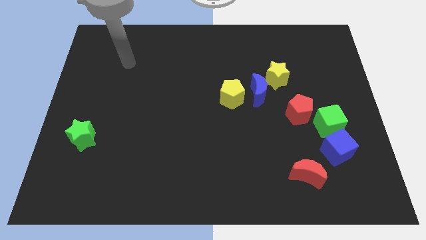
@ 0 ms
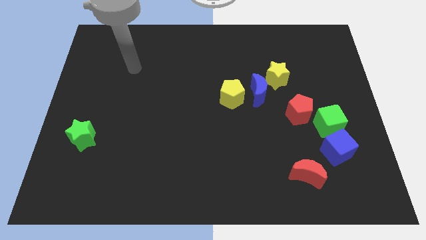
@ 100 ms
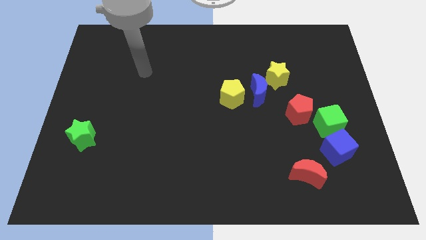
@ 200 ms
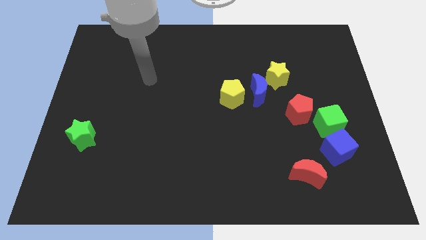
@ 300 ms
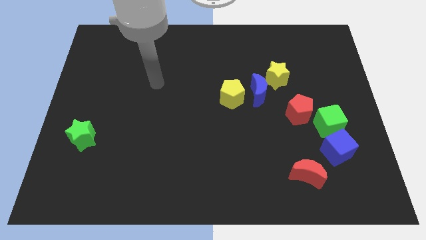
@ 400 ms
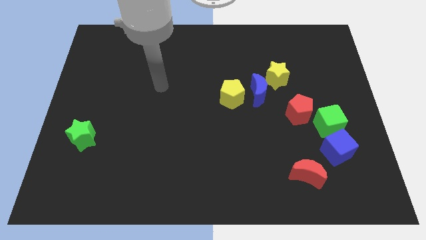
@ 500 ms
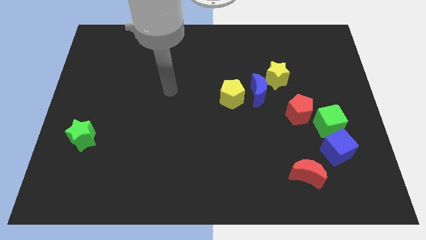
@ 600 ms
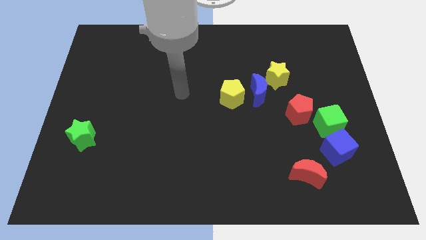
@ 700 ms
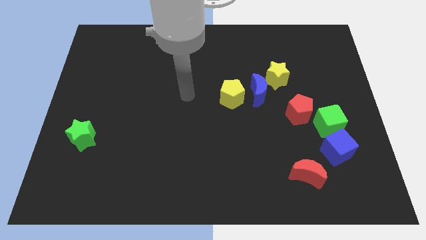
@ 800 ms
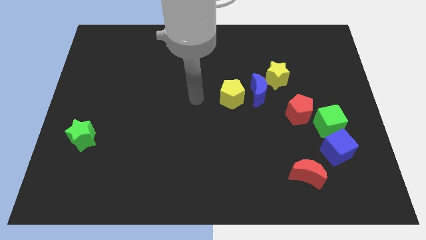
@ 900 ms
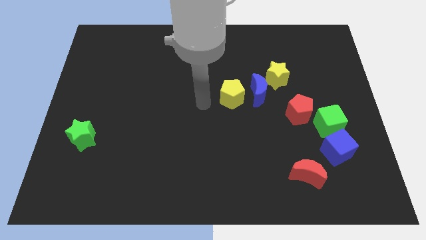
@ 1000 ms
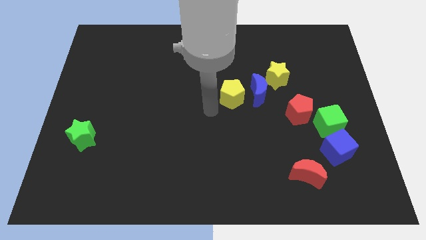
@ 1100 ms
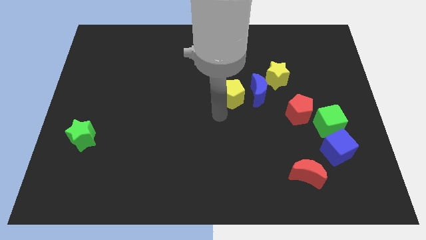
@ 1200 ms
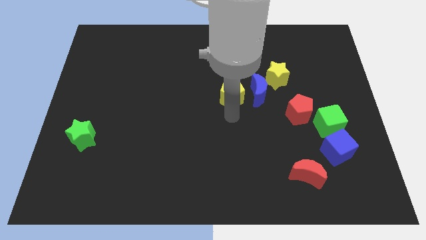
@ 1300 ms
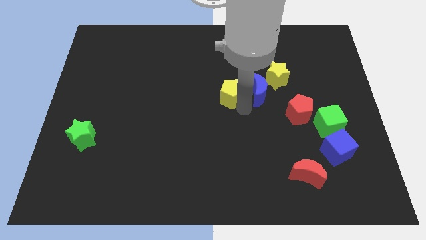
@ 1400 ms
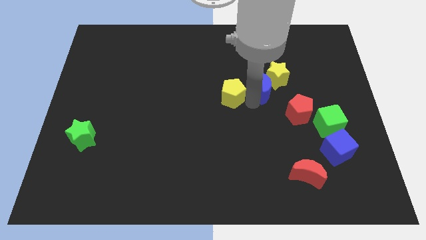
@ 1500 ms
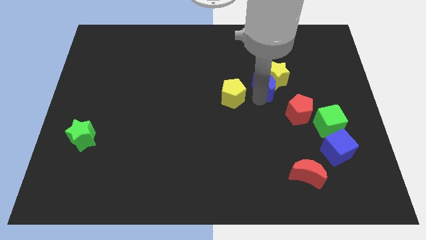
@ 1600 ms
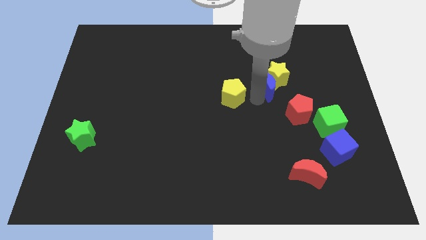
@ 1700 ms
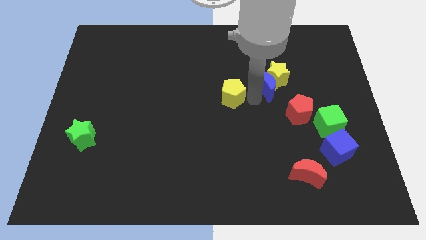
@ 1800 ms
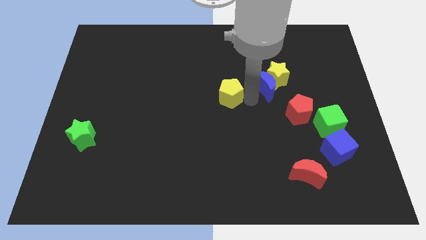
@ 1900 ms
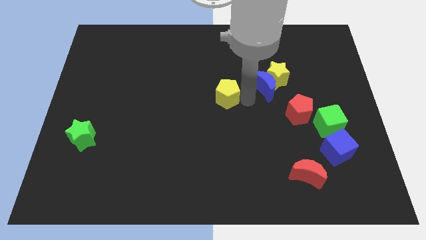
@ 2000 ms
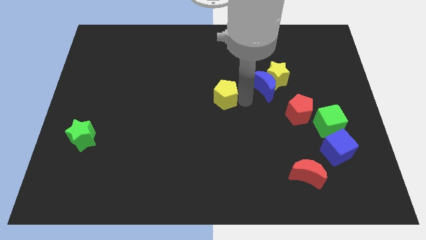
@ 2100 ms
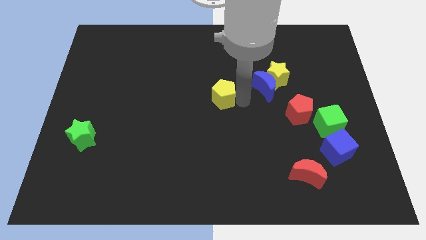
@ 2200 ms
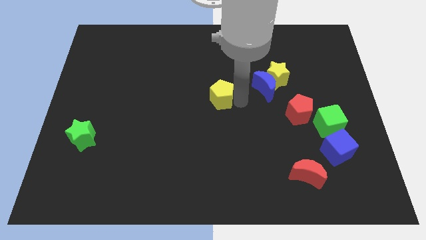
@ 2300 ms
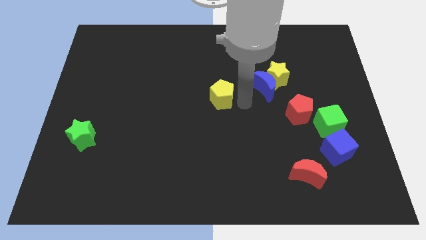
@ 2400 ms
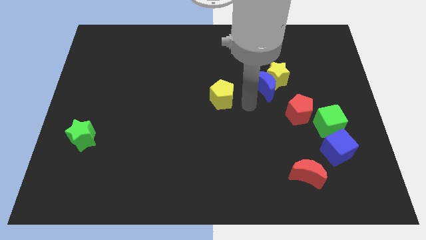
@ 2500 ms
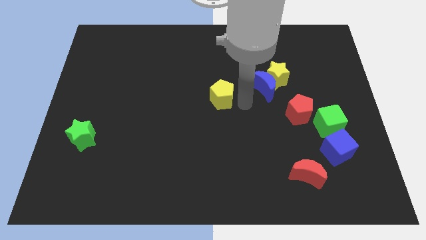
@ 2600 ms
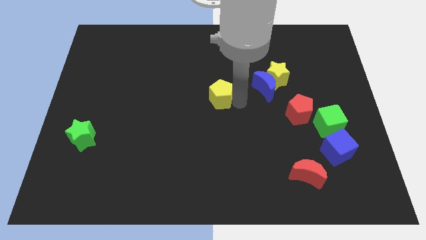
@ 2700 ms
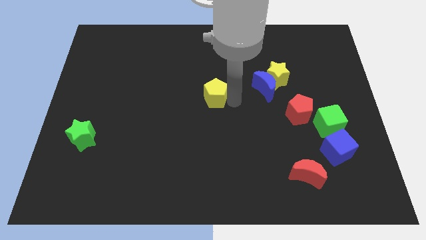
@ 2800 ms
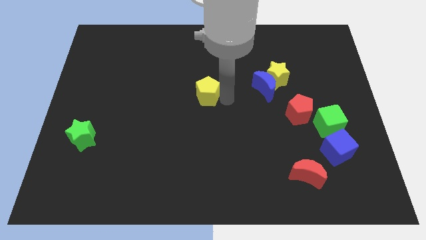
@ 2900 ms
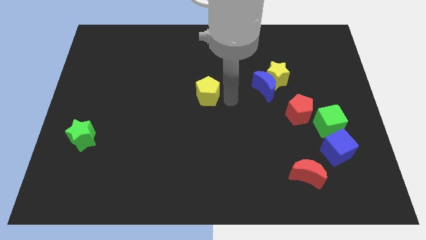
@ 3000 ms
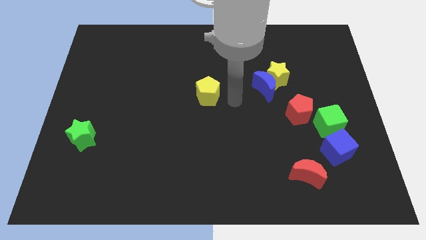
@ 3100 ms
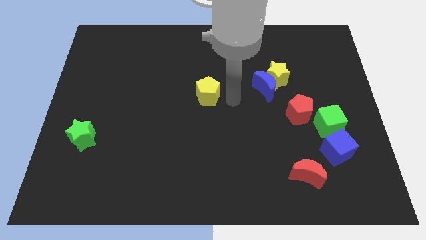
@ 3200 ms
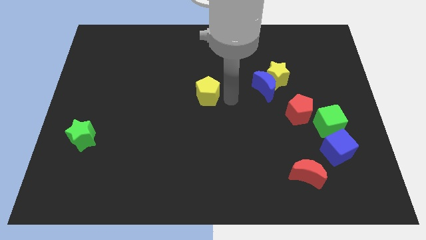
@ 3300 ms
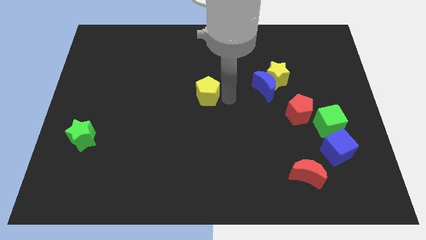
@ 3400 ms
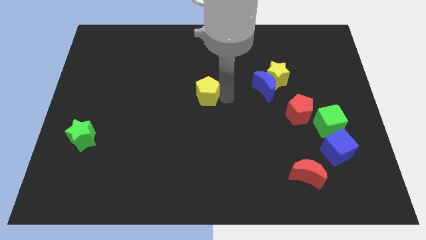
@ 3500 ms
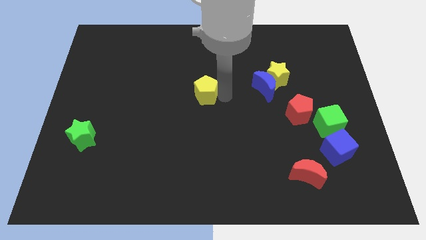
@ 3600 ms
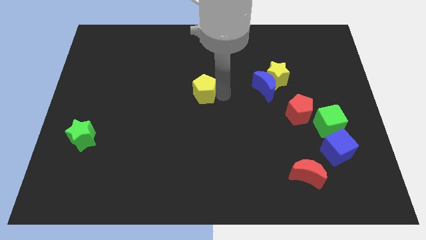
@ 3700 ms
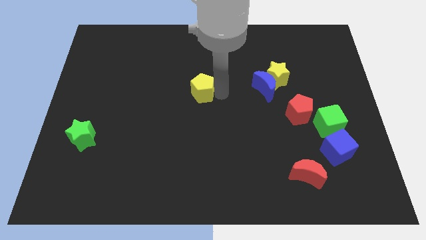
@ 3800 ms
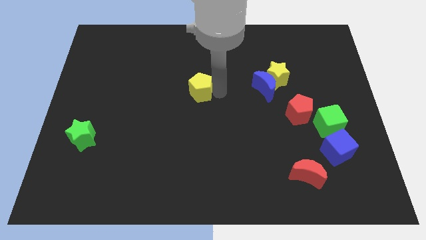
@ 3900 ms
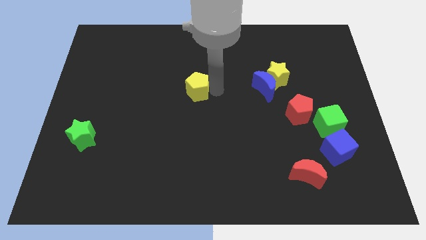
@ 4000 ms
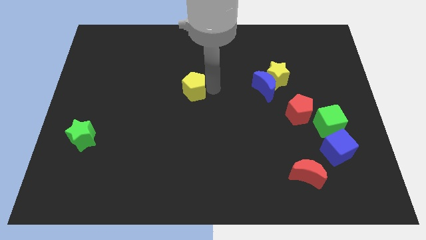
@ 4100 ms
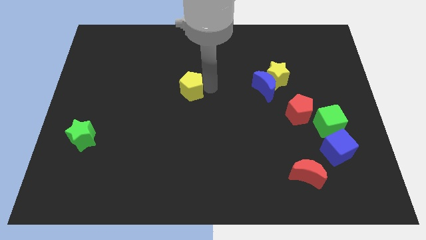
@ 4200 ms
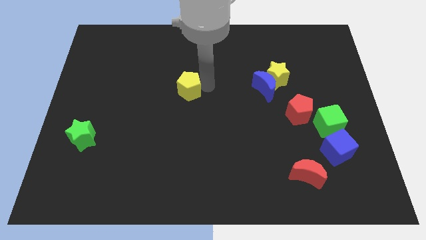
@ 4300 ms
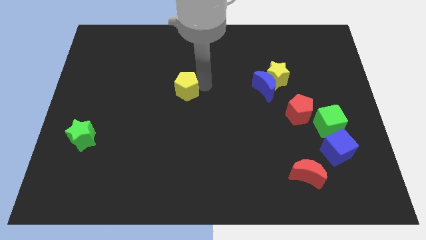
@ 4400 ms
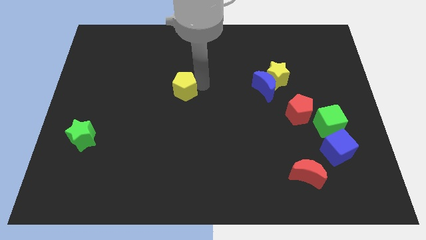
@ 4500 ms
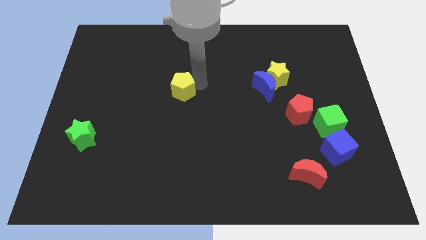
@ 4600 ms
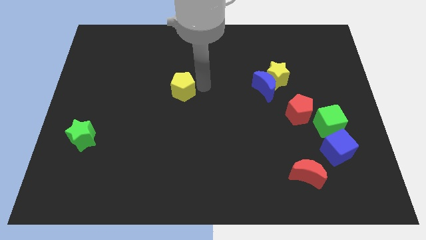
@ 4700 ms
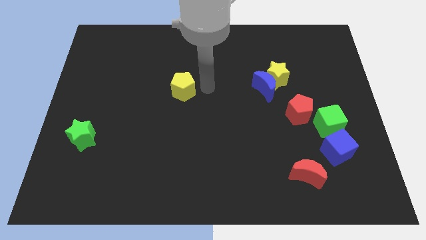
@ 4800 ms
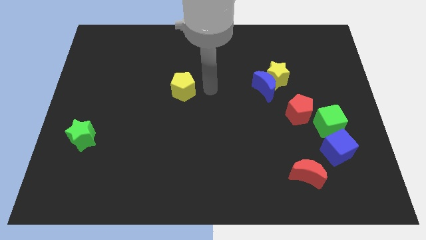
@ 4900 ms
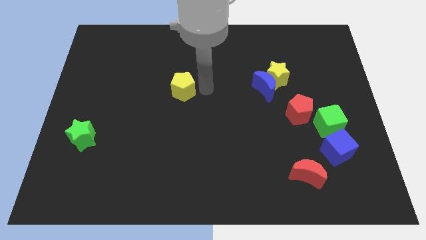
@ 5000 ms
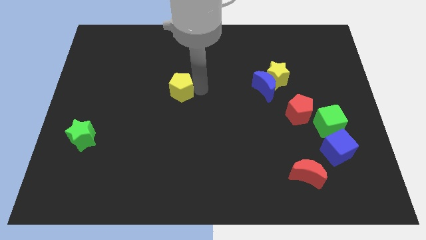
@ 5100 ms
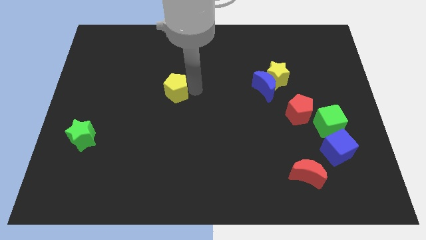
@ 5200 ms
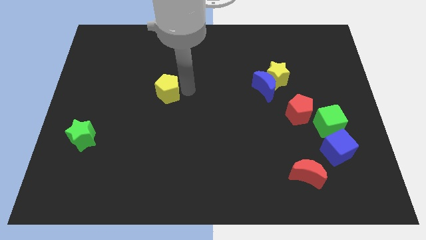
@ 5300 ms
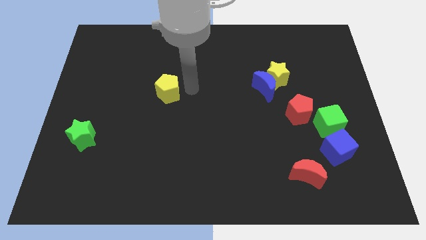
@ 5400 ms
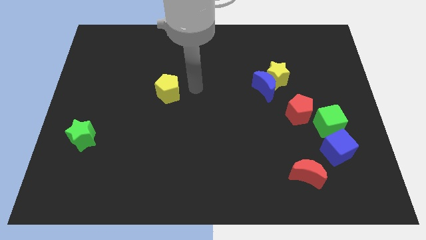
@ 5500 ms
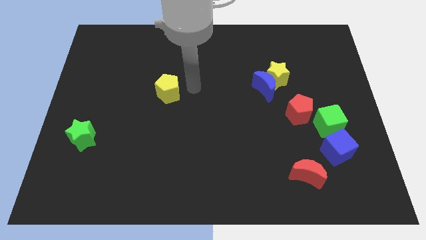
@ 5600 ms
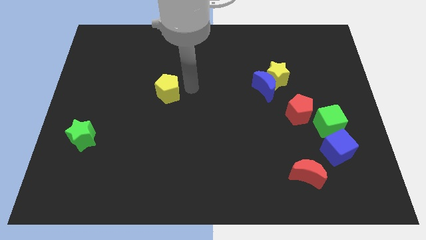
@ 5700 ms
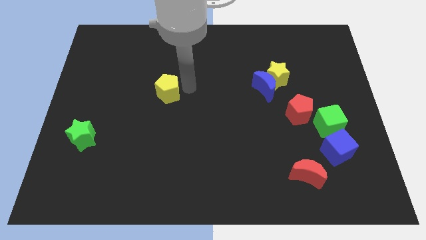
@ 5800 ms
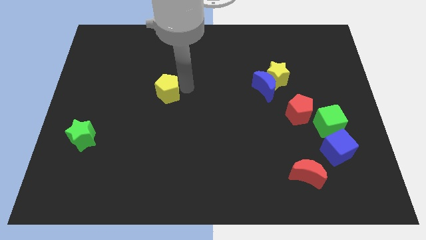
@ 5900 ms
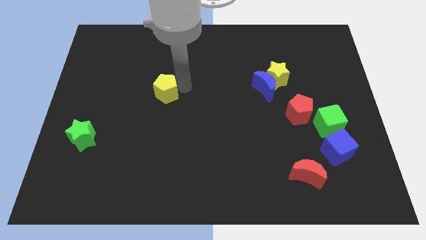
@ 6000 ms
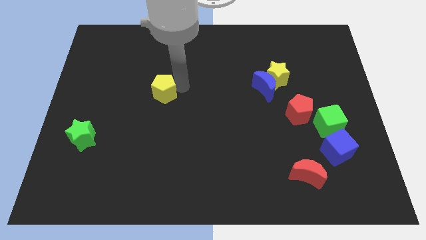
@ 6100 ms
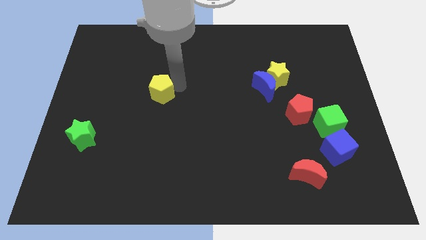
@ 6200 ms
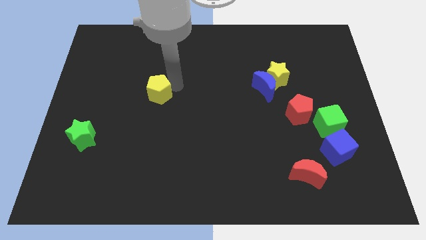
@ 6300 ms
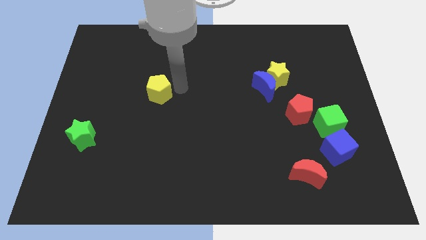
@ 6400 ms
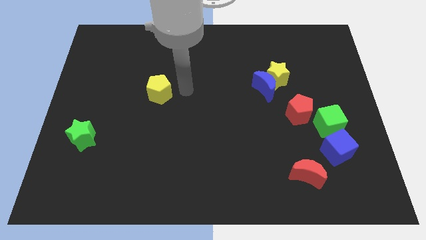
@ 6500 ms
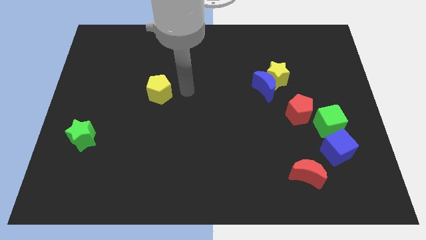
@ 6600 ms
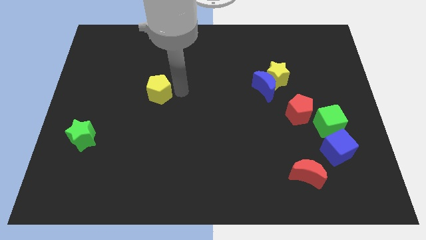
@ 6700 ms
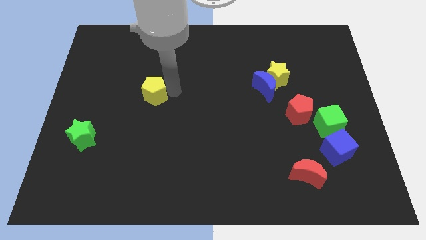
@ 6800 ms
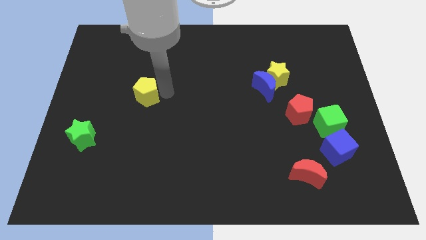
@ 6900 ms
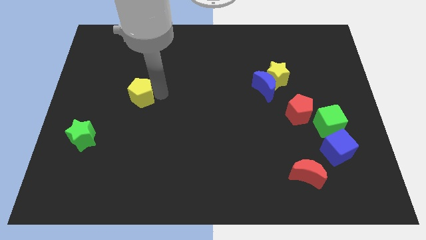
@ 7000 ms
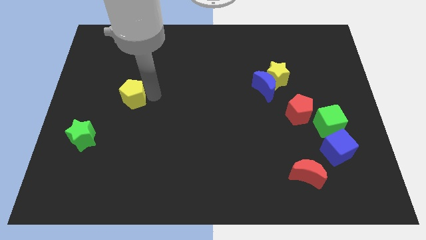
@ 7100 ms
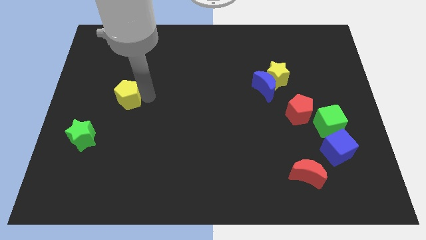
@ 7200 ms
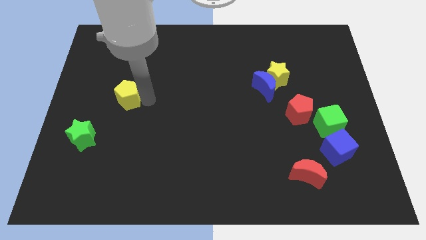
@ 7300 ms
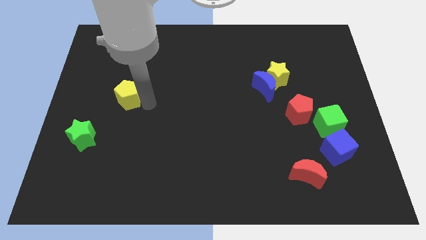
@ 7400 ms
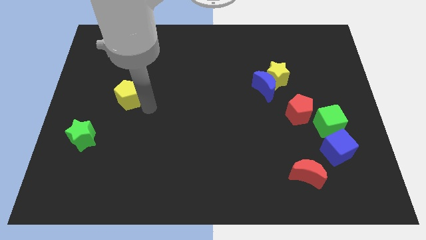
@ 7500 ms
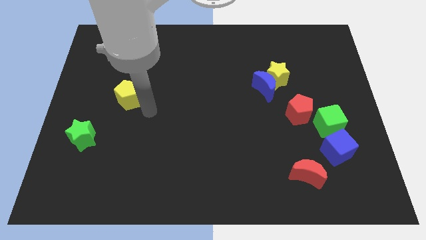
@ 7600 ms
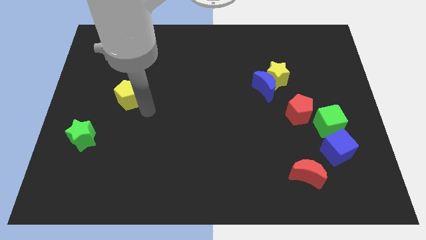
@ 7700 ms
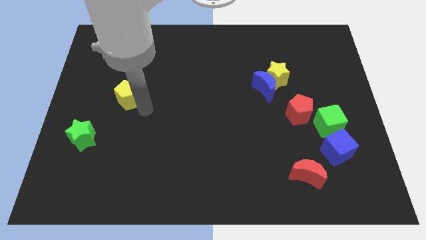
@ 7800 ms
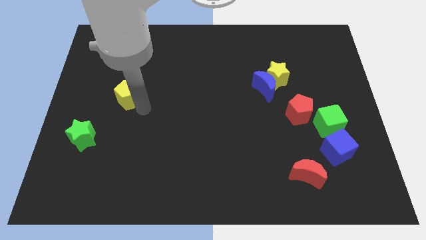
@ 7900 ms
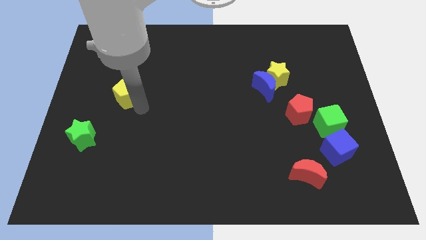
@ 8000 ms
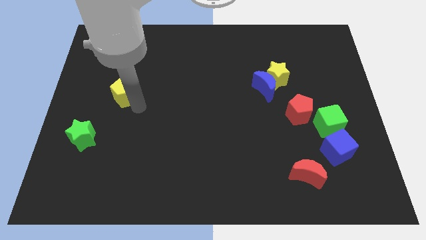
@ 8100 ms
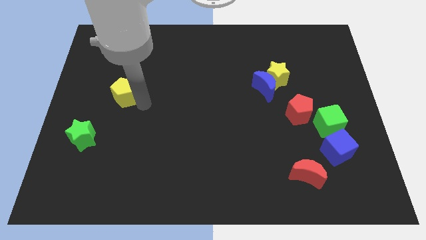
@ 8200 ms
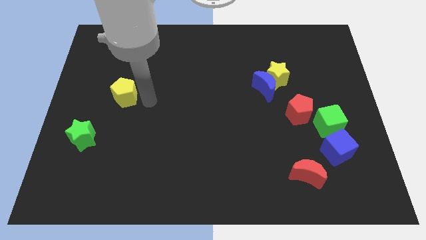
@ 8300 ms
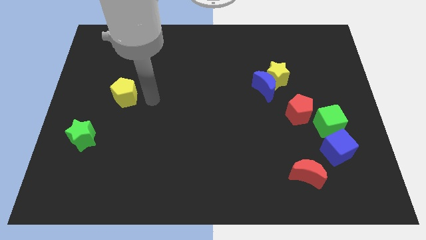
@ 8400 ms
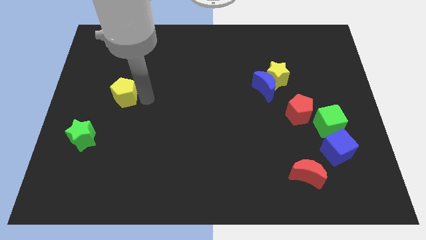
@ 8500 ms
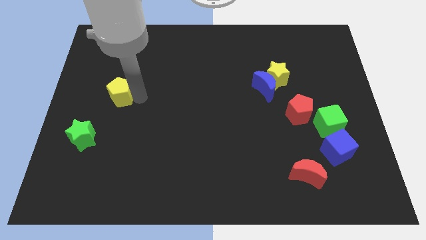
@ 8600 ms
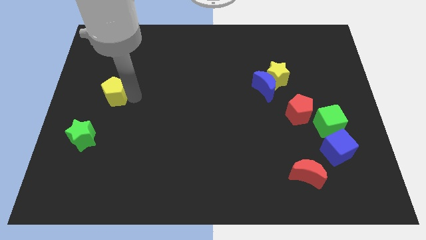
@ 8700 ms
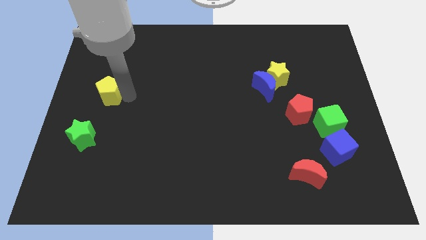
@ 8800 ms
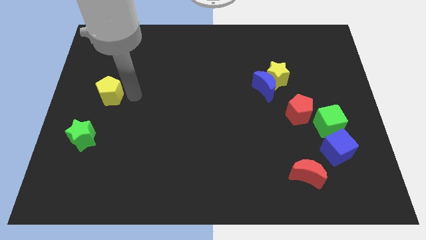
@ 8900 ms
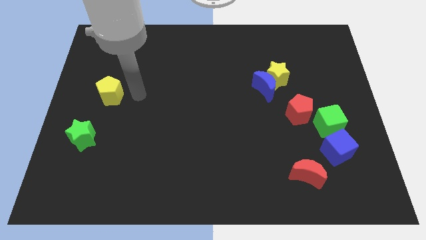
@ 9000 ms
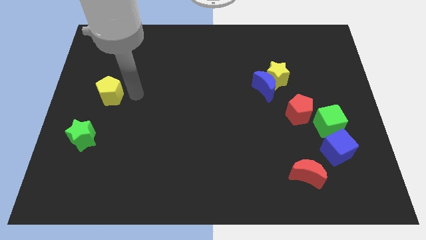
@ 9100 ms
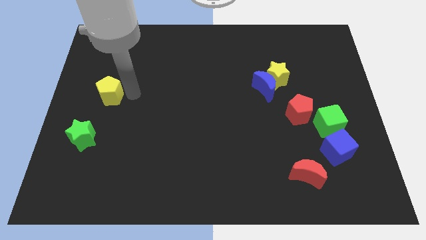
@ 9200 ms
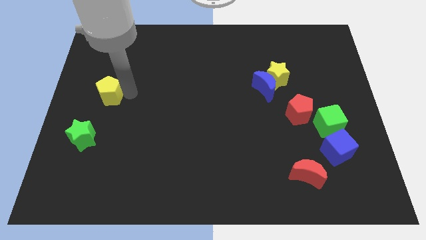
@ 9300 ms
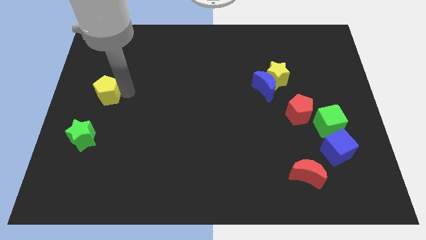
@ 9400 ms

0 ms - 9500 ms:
slide the yellow pentagon to the left side
